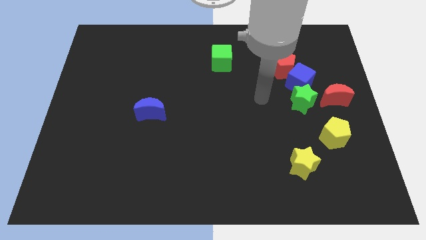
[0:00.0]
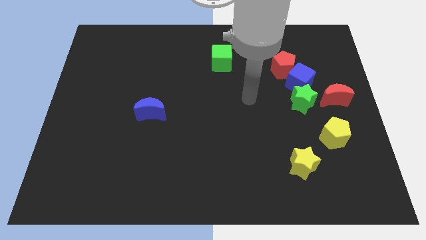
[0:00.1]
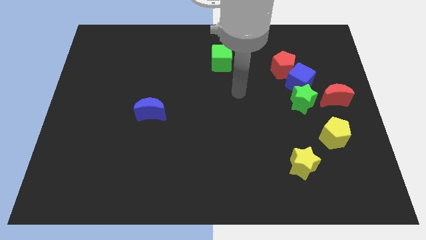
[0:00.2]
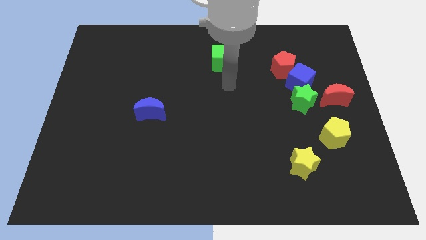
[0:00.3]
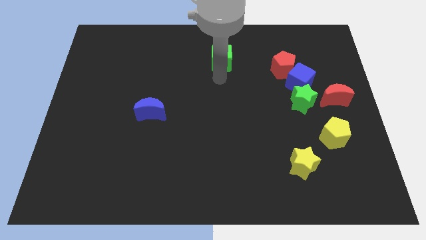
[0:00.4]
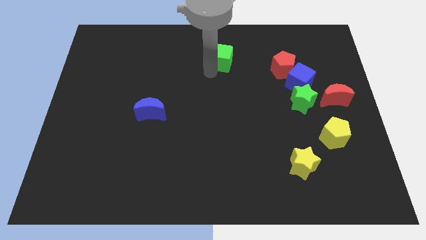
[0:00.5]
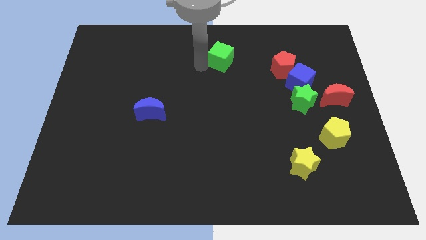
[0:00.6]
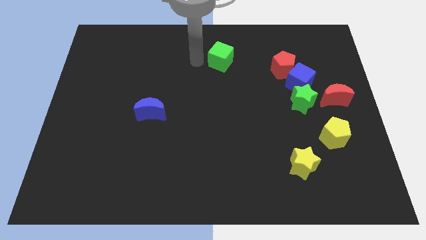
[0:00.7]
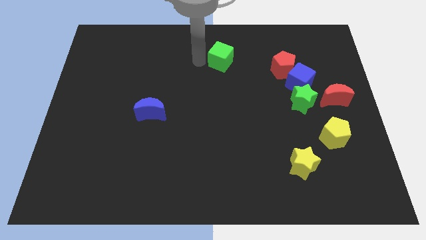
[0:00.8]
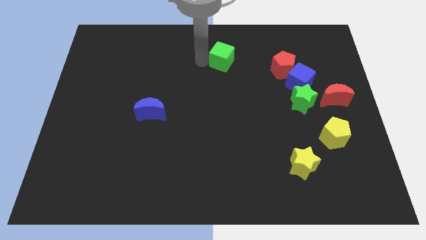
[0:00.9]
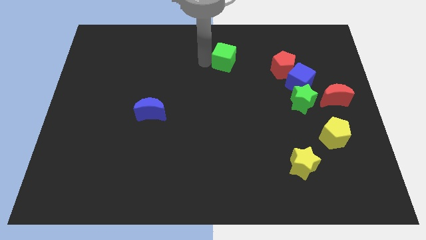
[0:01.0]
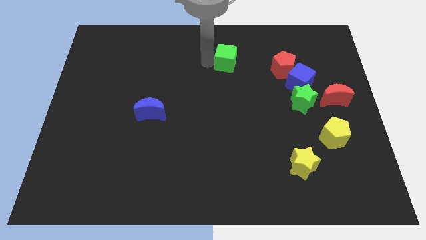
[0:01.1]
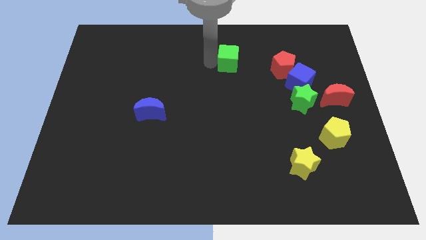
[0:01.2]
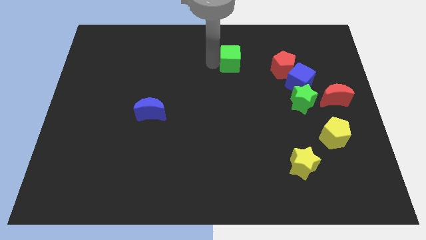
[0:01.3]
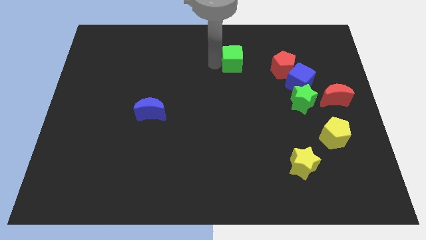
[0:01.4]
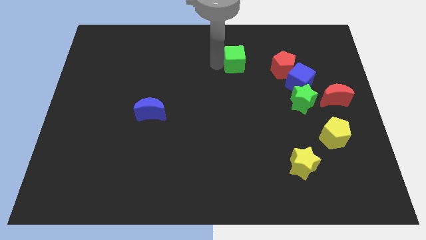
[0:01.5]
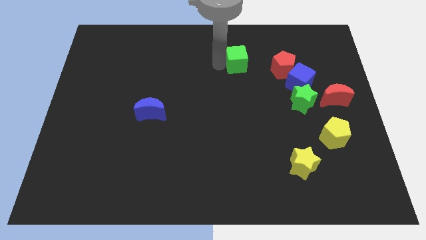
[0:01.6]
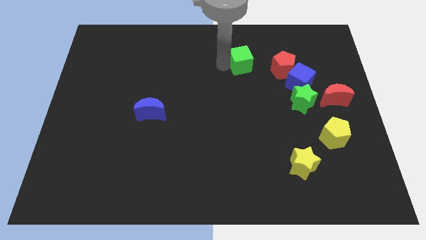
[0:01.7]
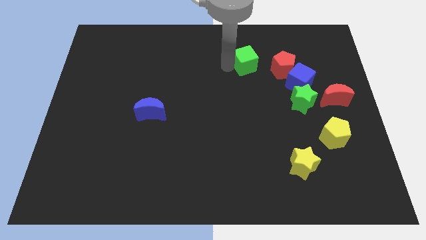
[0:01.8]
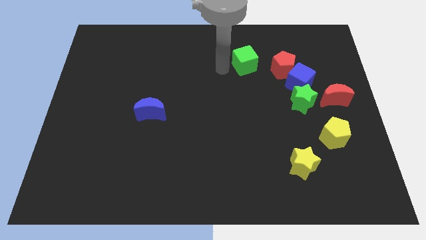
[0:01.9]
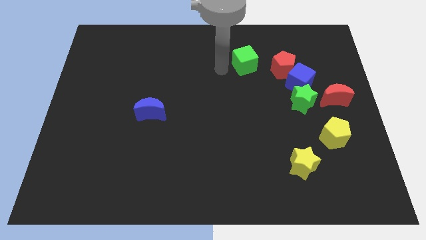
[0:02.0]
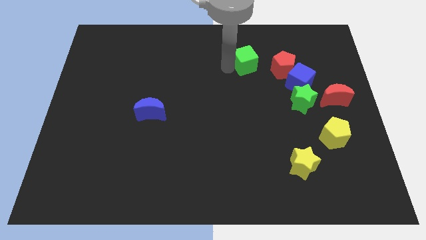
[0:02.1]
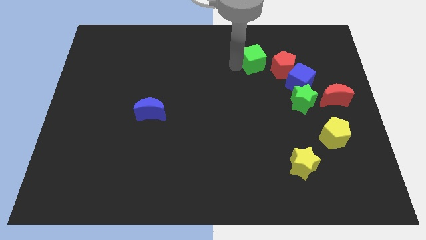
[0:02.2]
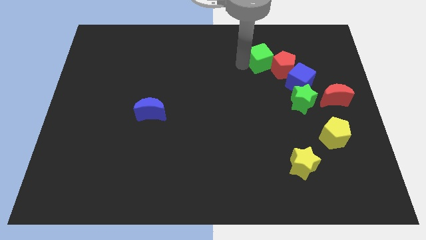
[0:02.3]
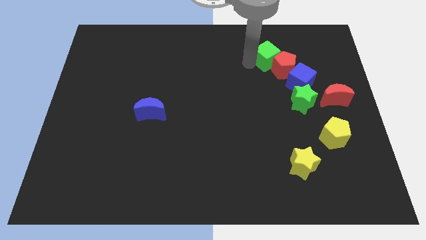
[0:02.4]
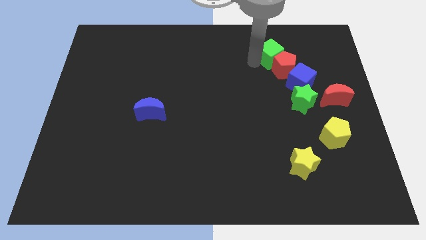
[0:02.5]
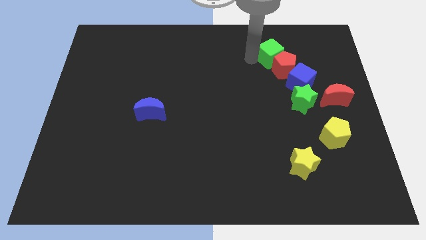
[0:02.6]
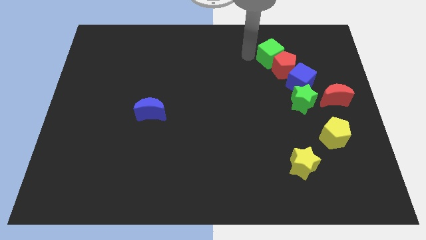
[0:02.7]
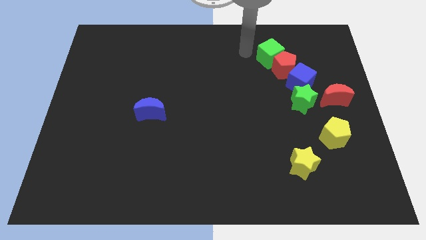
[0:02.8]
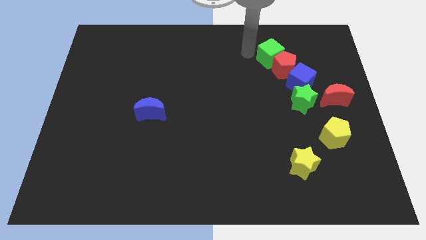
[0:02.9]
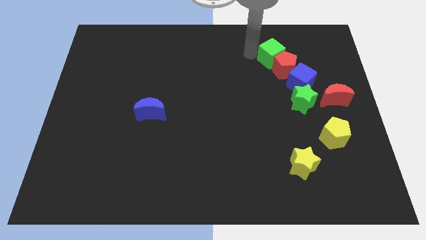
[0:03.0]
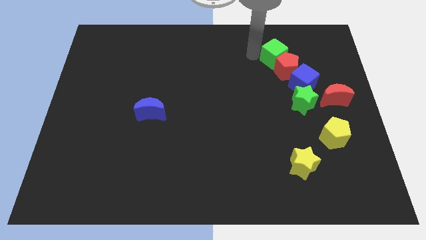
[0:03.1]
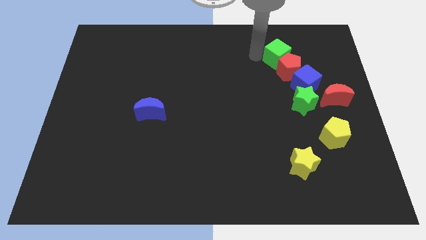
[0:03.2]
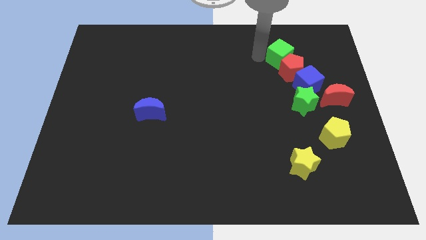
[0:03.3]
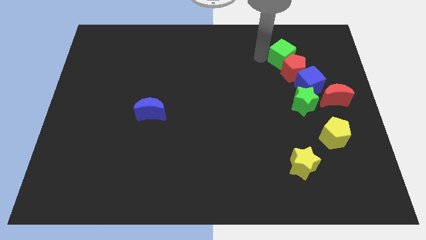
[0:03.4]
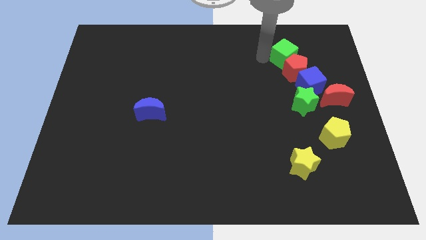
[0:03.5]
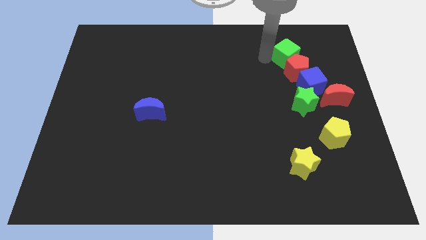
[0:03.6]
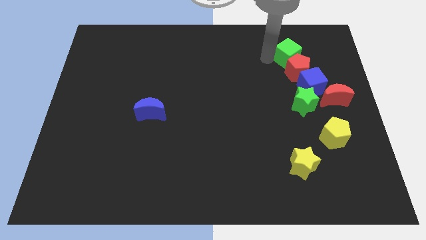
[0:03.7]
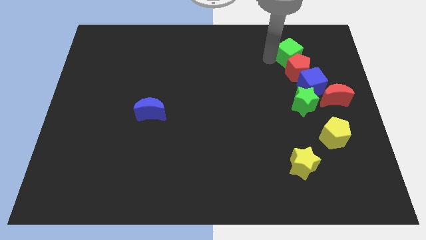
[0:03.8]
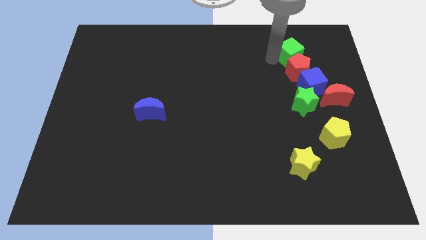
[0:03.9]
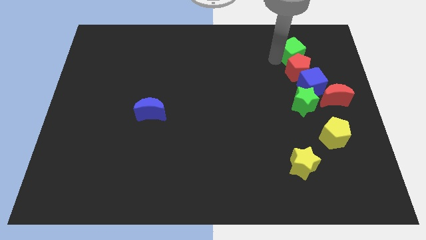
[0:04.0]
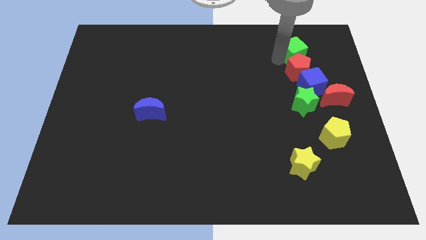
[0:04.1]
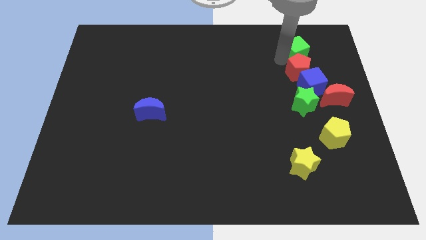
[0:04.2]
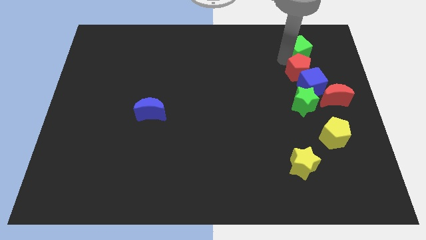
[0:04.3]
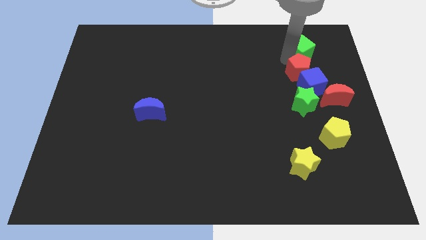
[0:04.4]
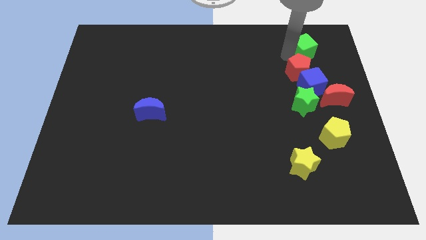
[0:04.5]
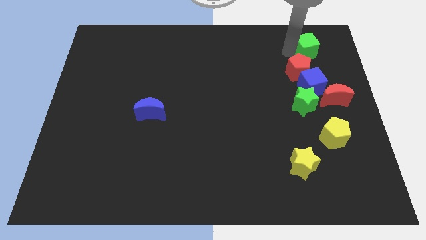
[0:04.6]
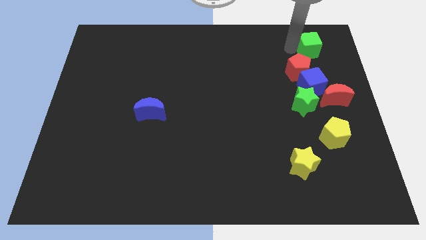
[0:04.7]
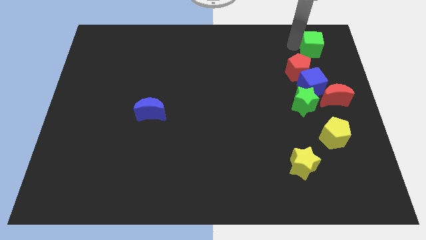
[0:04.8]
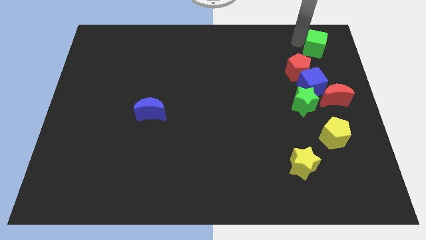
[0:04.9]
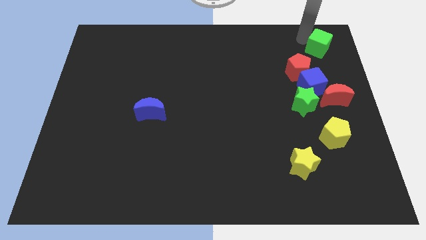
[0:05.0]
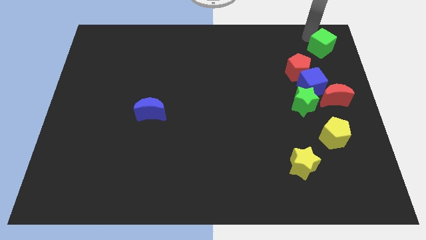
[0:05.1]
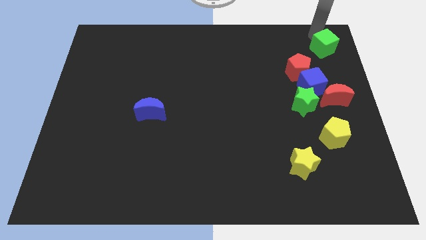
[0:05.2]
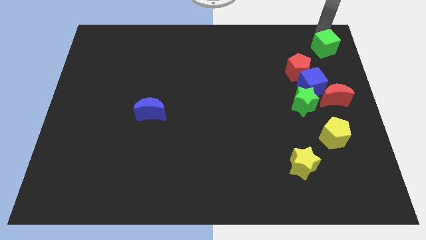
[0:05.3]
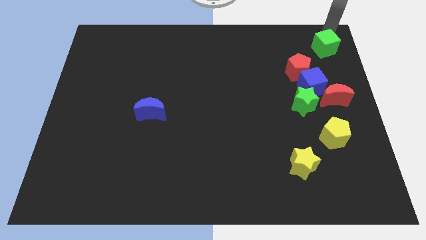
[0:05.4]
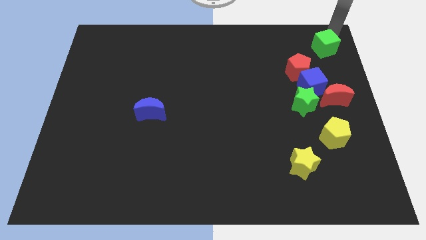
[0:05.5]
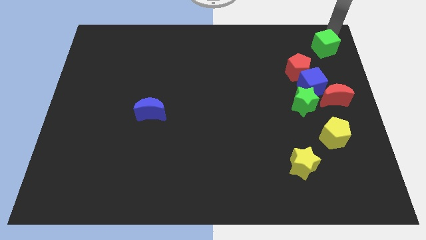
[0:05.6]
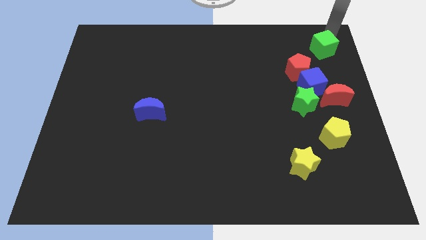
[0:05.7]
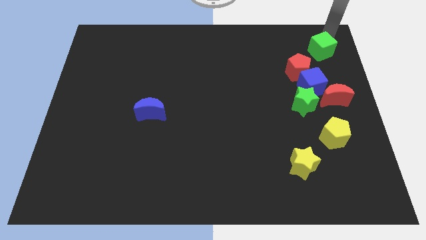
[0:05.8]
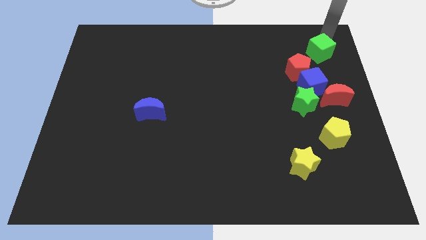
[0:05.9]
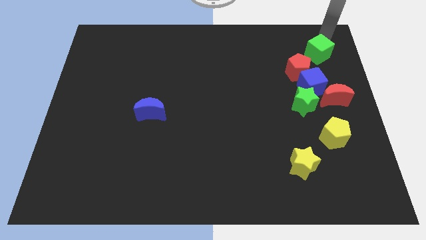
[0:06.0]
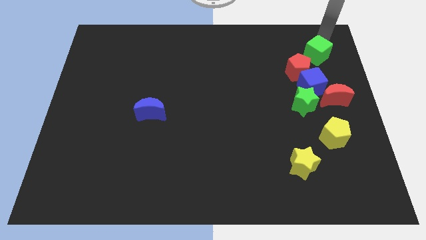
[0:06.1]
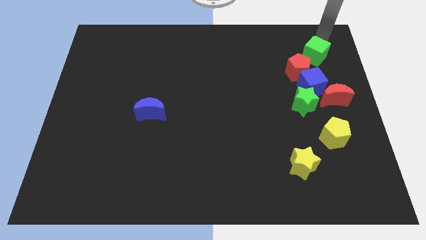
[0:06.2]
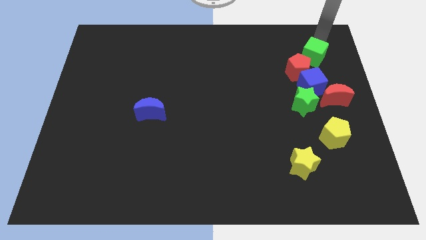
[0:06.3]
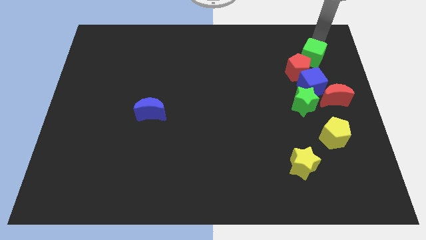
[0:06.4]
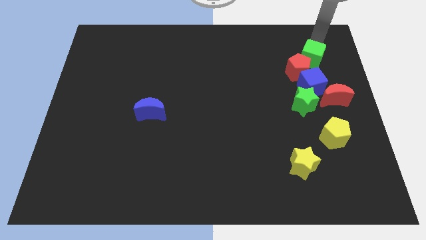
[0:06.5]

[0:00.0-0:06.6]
put the green cube to the right of the red pentagon
